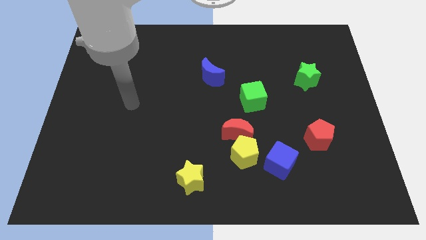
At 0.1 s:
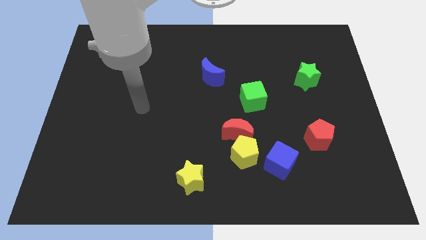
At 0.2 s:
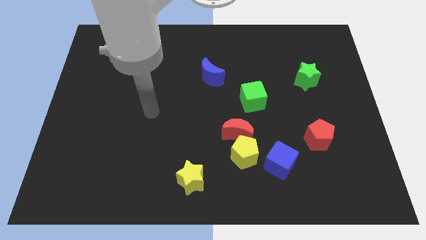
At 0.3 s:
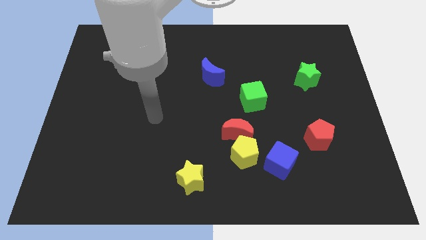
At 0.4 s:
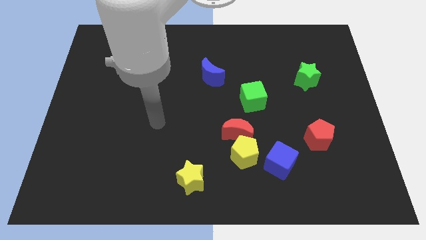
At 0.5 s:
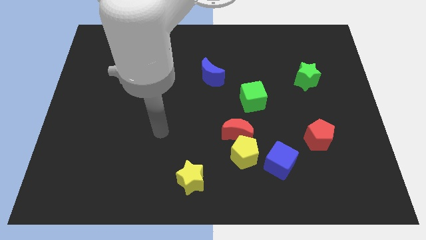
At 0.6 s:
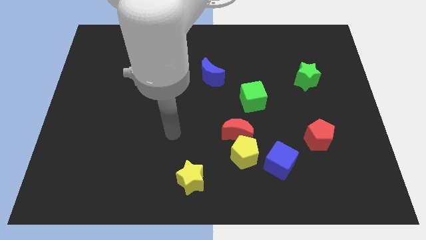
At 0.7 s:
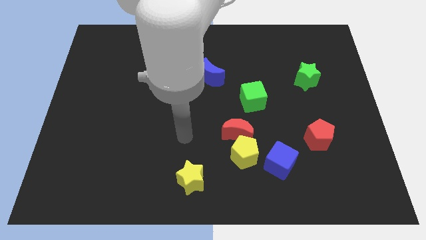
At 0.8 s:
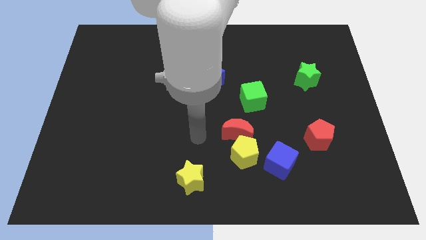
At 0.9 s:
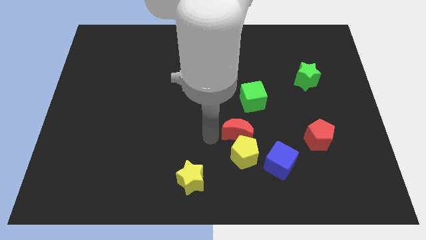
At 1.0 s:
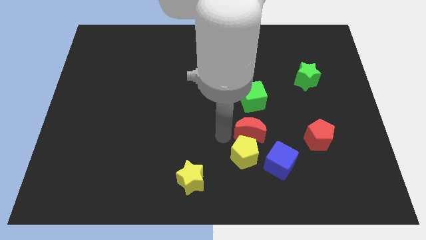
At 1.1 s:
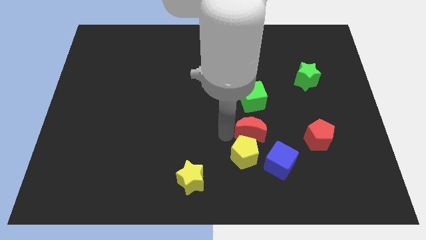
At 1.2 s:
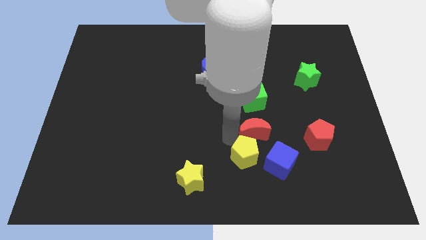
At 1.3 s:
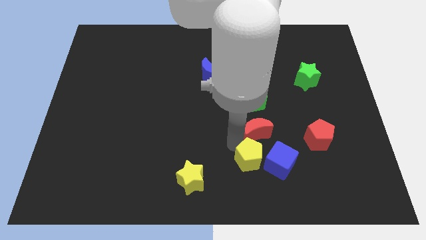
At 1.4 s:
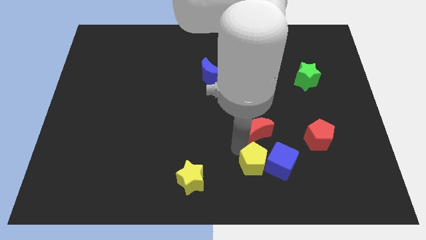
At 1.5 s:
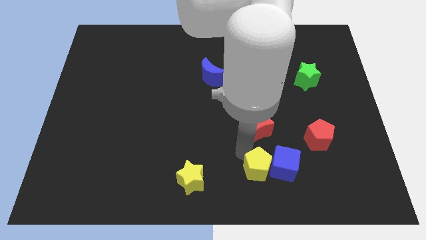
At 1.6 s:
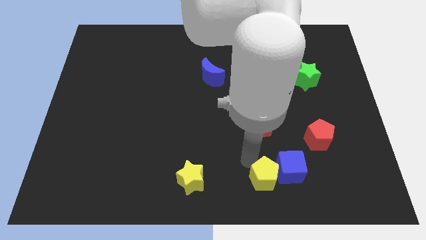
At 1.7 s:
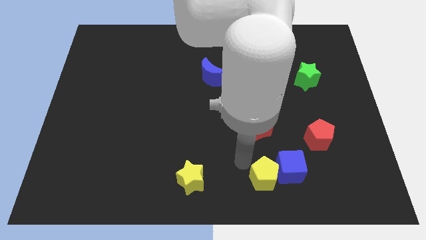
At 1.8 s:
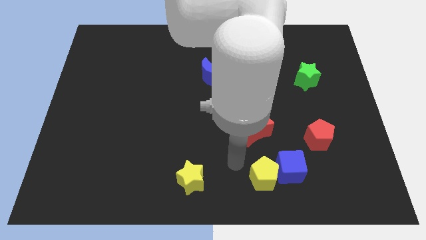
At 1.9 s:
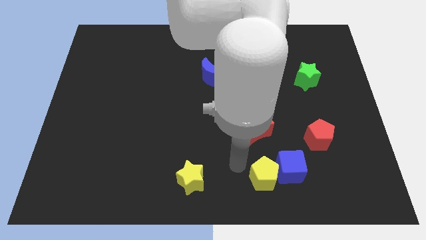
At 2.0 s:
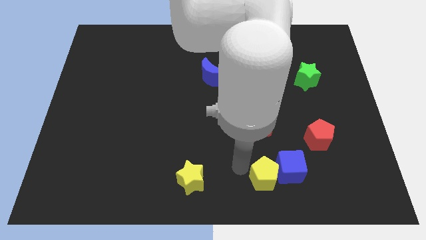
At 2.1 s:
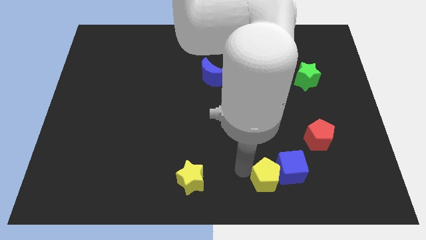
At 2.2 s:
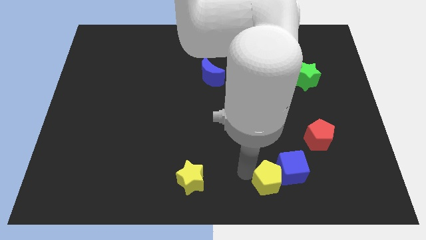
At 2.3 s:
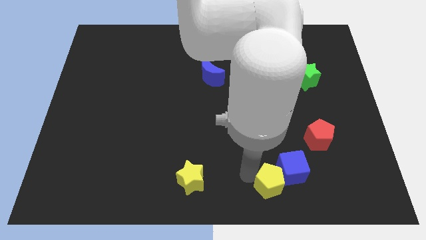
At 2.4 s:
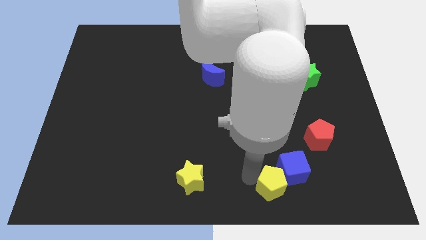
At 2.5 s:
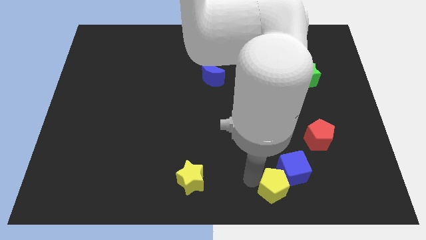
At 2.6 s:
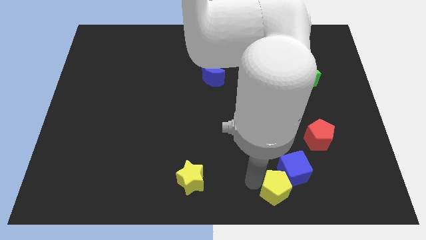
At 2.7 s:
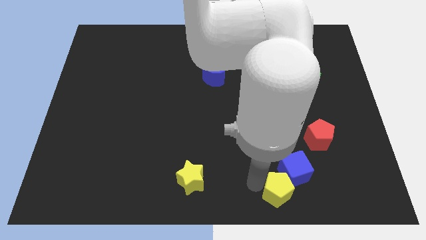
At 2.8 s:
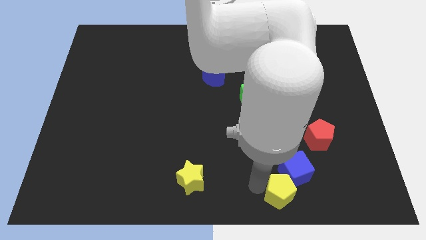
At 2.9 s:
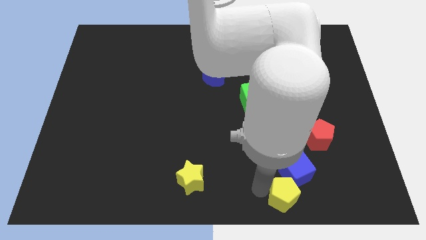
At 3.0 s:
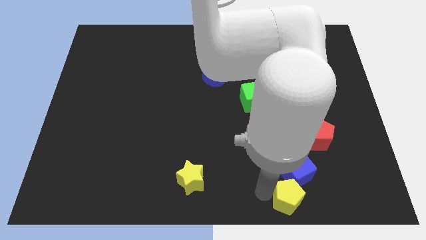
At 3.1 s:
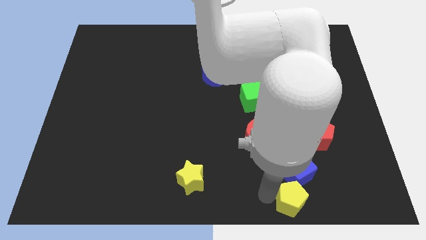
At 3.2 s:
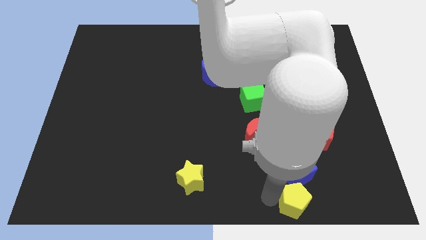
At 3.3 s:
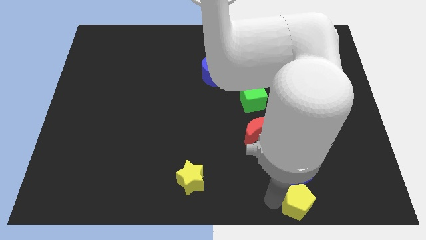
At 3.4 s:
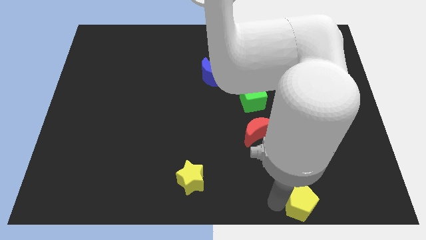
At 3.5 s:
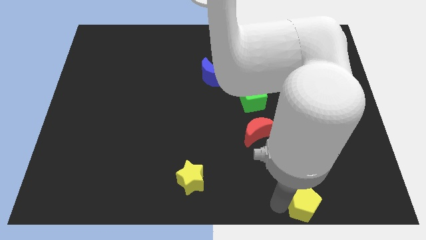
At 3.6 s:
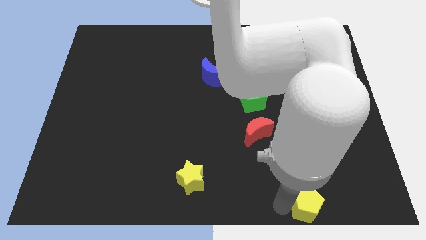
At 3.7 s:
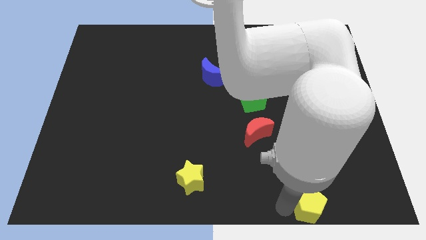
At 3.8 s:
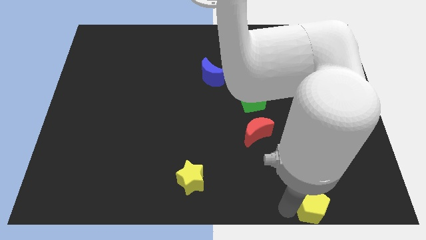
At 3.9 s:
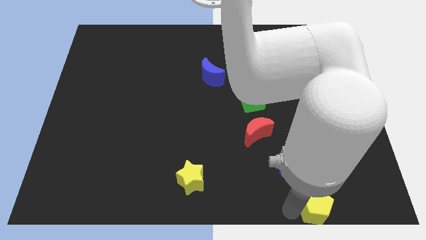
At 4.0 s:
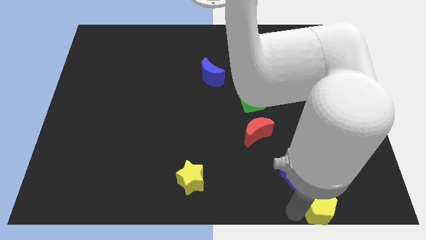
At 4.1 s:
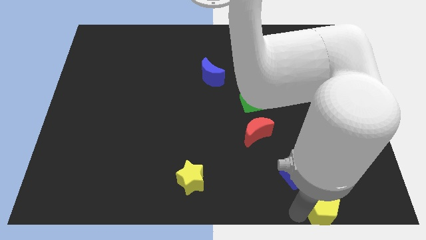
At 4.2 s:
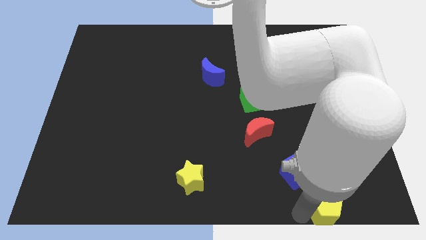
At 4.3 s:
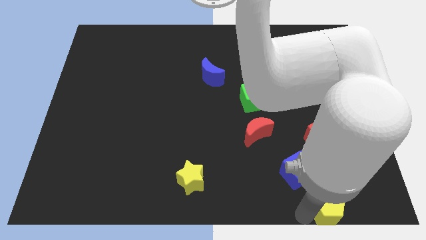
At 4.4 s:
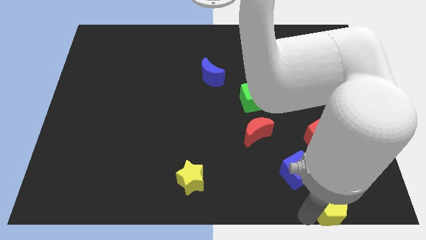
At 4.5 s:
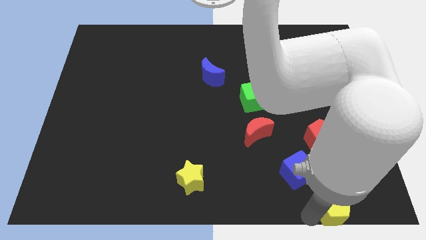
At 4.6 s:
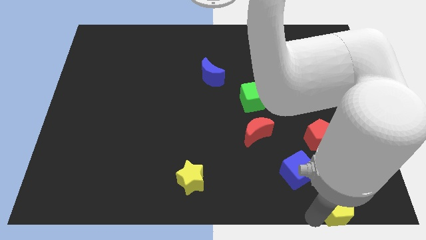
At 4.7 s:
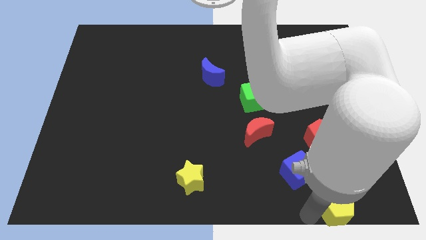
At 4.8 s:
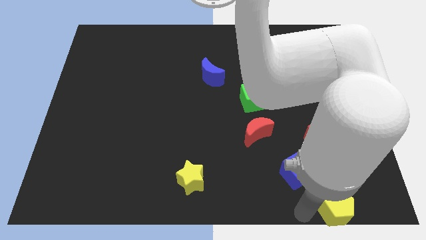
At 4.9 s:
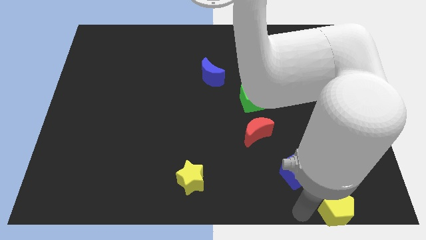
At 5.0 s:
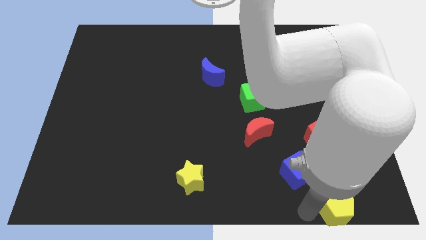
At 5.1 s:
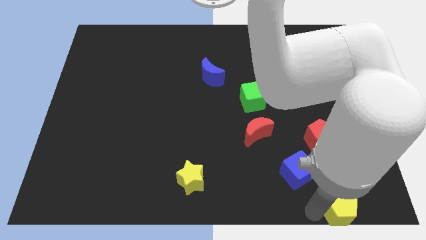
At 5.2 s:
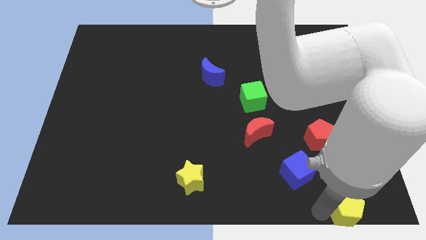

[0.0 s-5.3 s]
move the yellow pentagon to the bottom right

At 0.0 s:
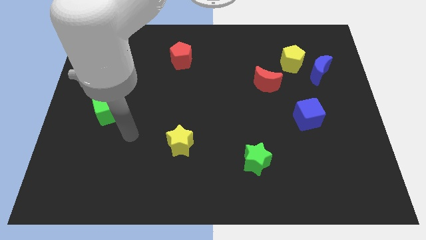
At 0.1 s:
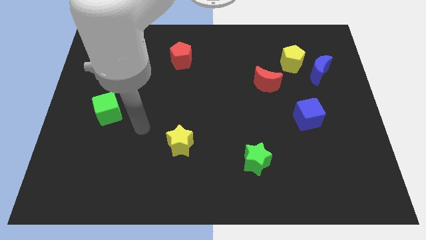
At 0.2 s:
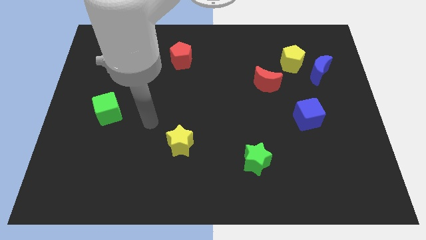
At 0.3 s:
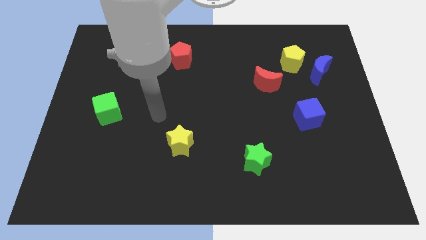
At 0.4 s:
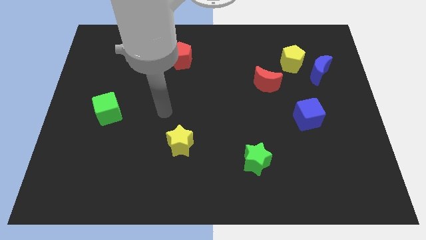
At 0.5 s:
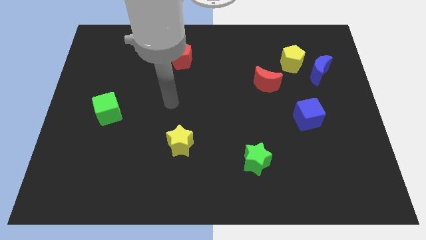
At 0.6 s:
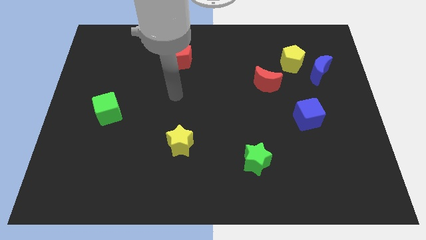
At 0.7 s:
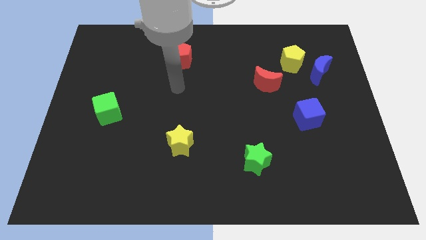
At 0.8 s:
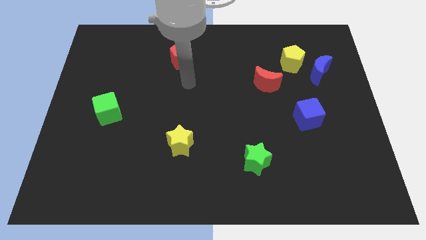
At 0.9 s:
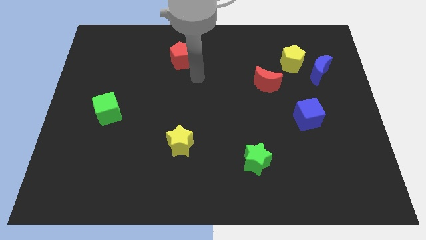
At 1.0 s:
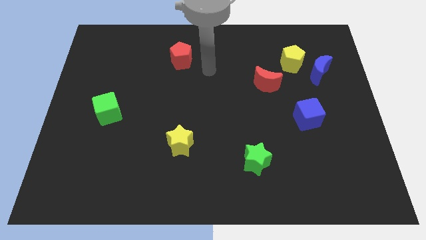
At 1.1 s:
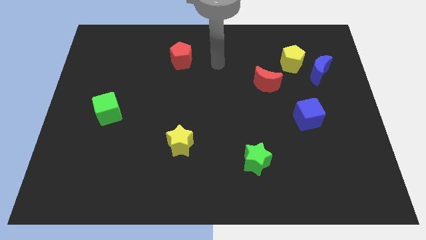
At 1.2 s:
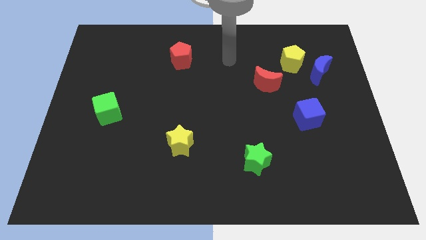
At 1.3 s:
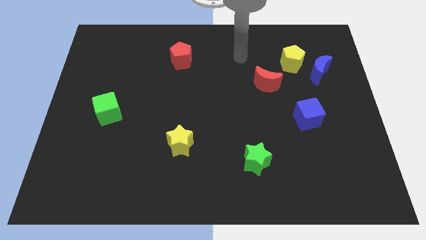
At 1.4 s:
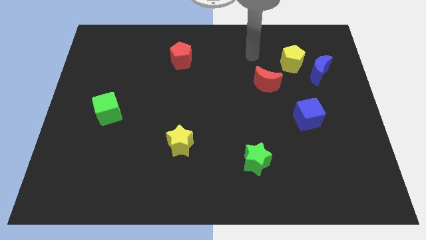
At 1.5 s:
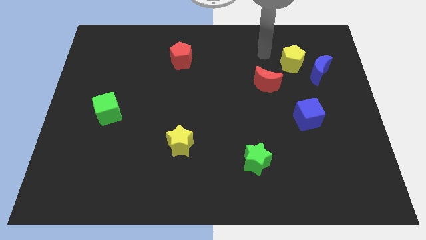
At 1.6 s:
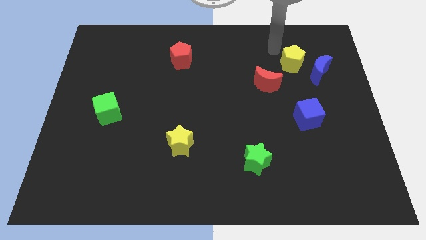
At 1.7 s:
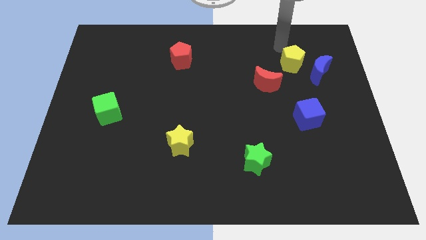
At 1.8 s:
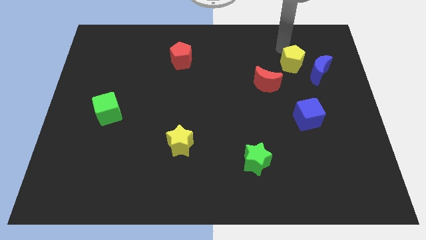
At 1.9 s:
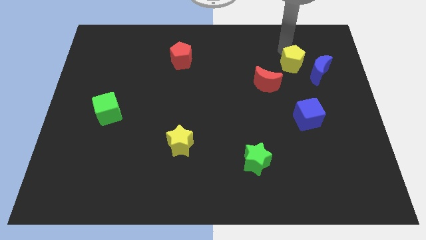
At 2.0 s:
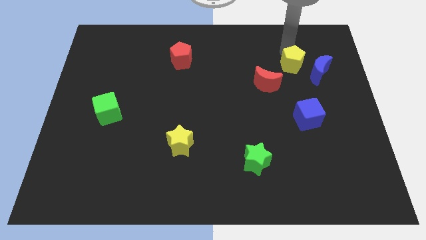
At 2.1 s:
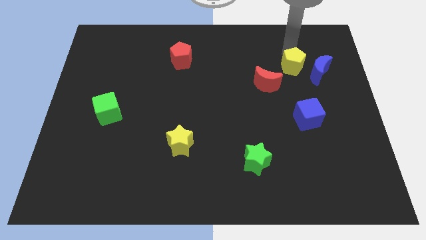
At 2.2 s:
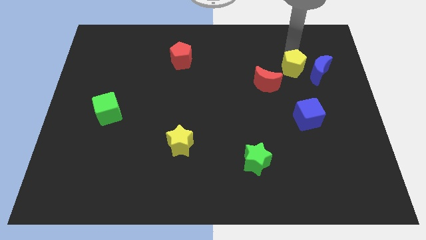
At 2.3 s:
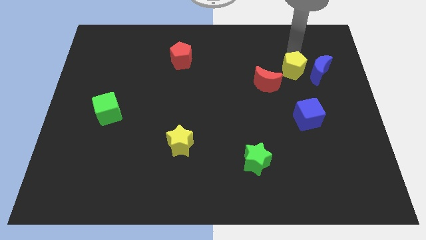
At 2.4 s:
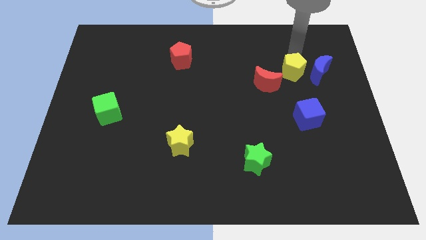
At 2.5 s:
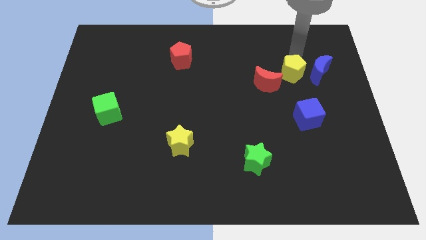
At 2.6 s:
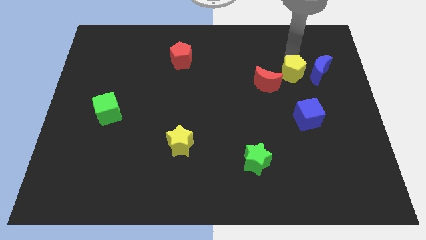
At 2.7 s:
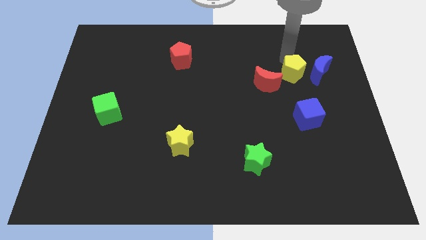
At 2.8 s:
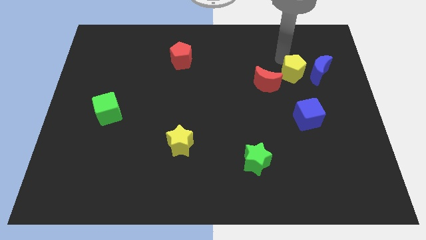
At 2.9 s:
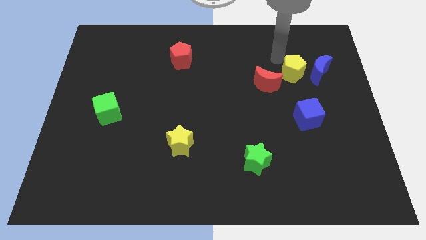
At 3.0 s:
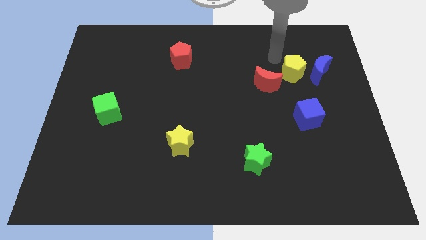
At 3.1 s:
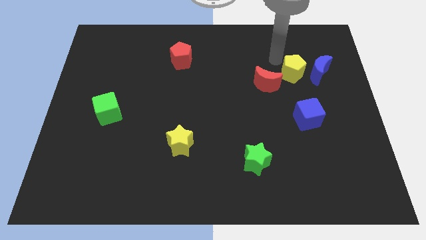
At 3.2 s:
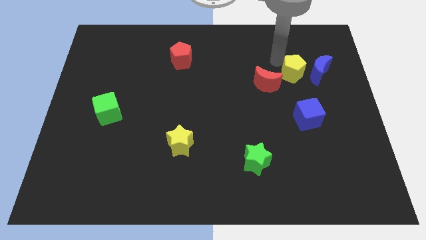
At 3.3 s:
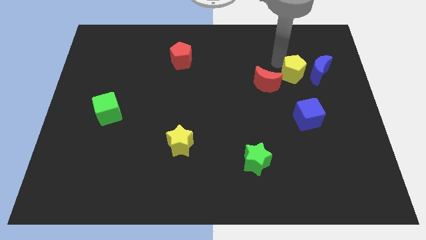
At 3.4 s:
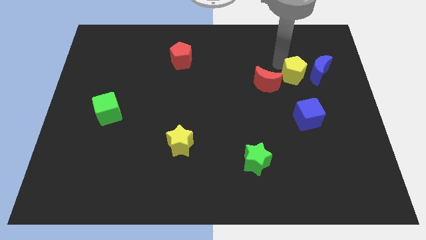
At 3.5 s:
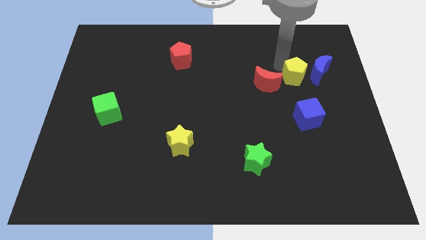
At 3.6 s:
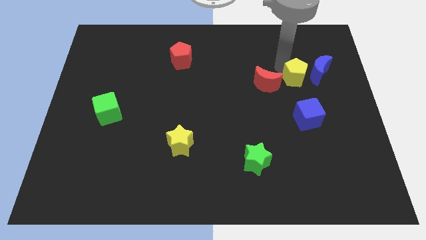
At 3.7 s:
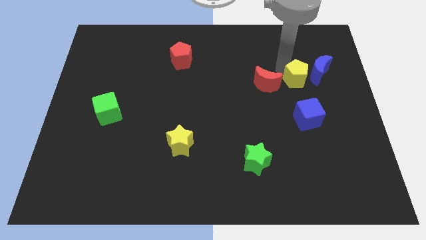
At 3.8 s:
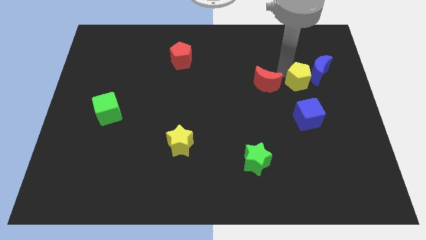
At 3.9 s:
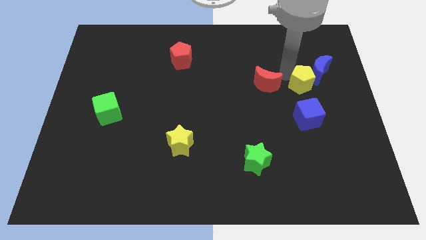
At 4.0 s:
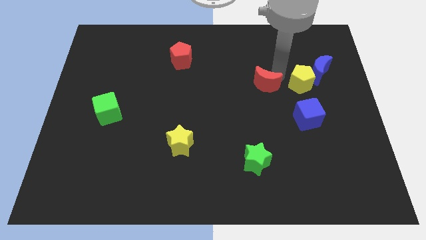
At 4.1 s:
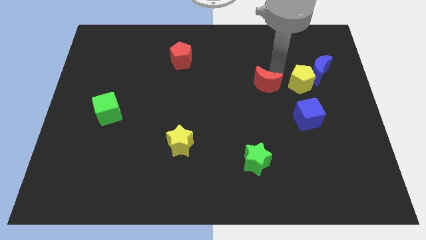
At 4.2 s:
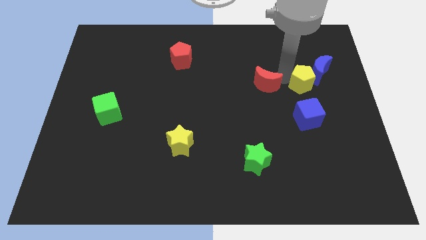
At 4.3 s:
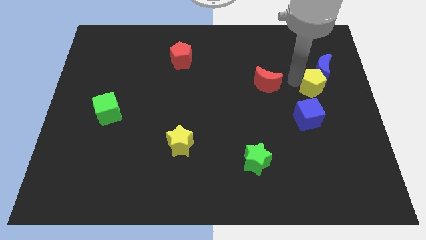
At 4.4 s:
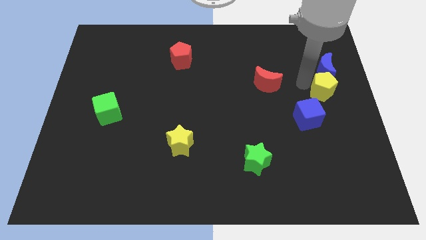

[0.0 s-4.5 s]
move the yellow pentagon to the right side
